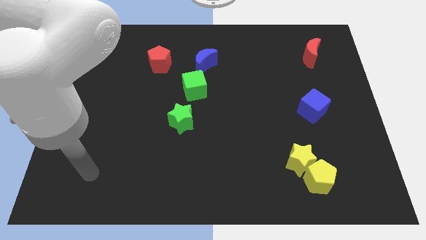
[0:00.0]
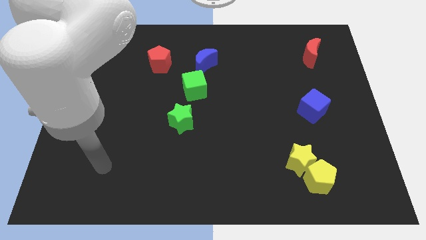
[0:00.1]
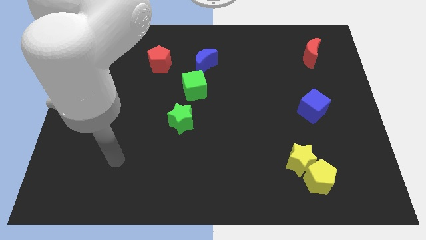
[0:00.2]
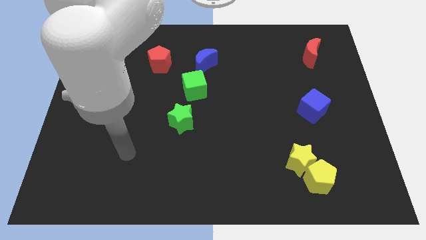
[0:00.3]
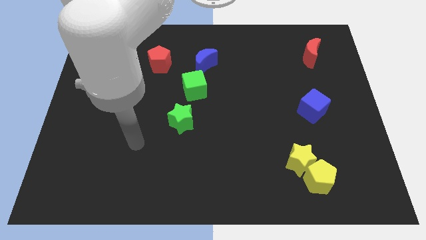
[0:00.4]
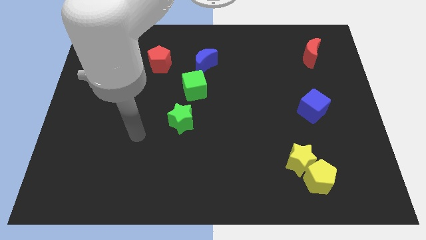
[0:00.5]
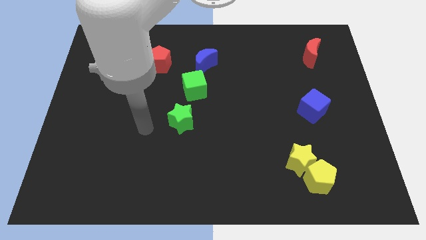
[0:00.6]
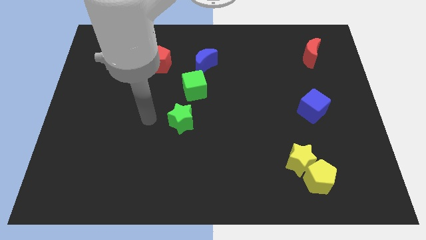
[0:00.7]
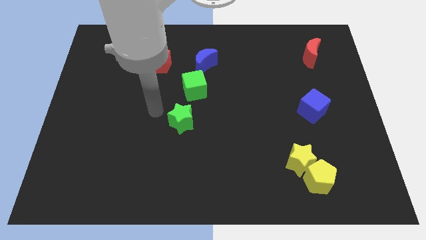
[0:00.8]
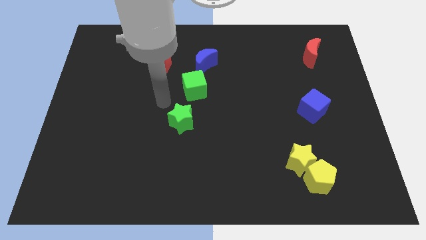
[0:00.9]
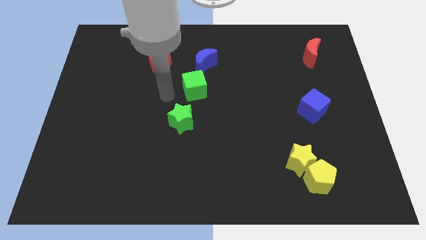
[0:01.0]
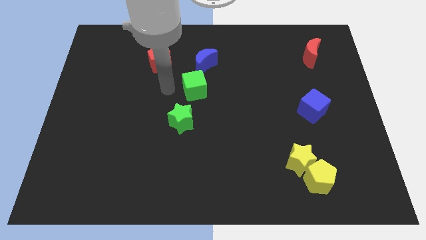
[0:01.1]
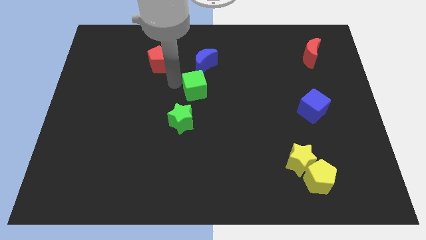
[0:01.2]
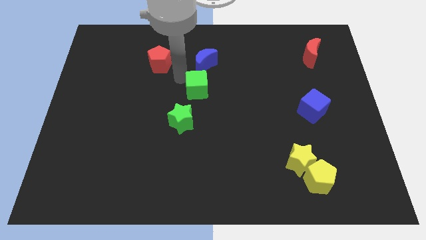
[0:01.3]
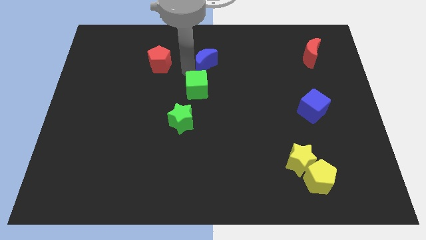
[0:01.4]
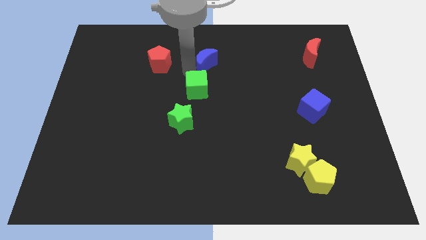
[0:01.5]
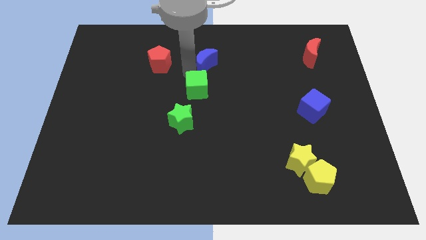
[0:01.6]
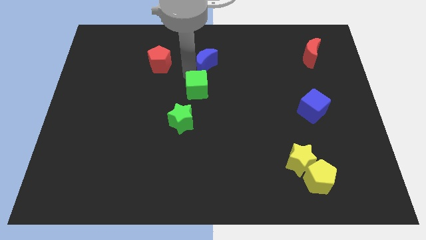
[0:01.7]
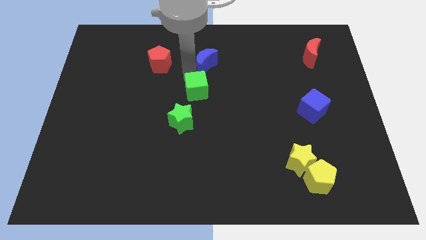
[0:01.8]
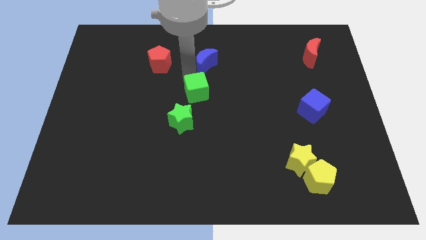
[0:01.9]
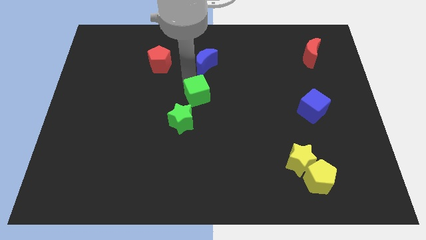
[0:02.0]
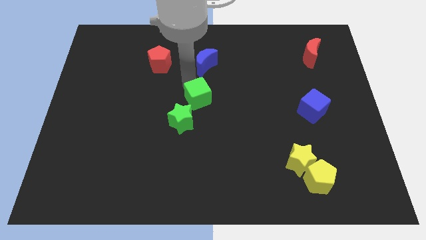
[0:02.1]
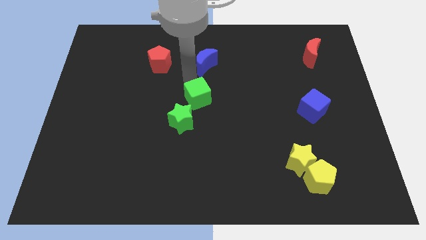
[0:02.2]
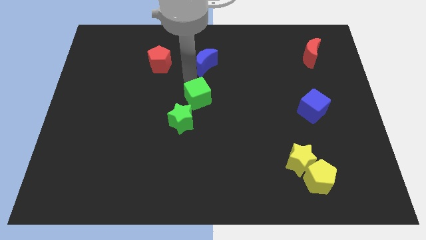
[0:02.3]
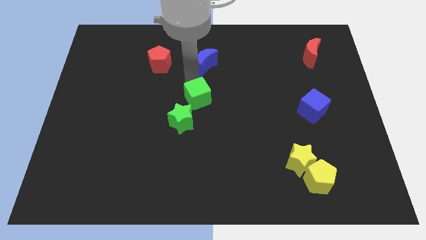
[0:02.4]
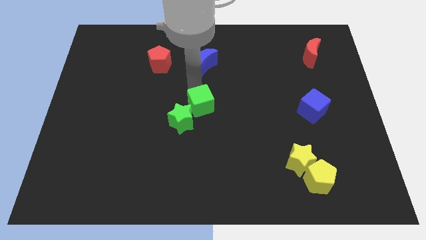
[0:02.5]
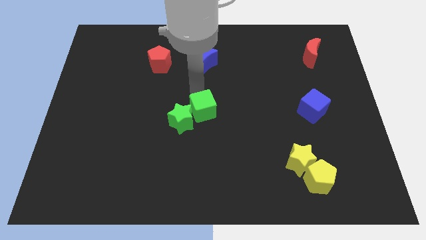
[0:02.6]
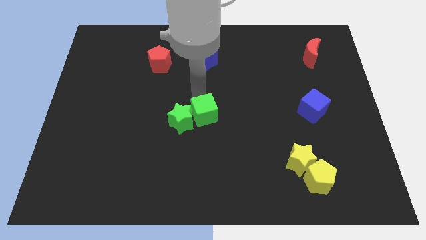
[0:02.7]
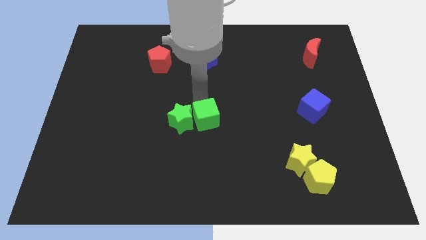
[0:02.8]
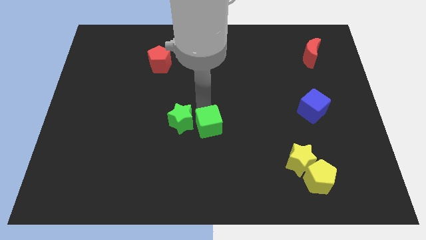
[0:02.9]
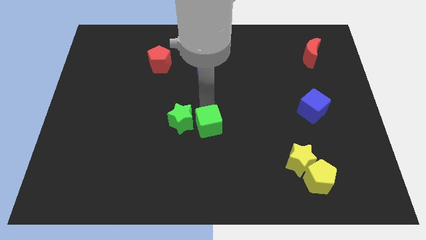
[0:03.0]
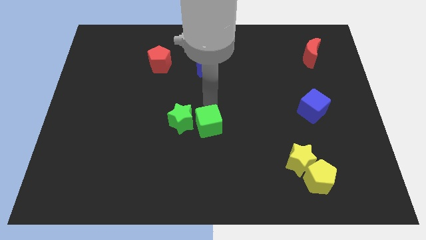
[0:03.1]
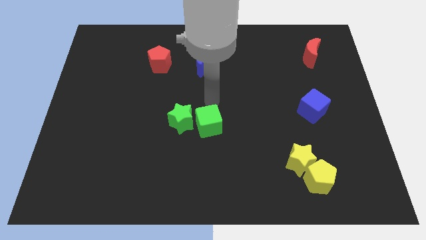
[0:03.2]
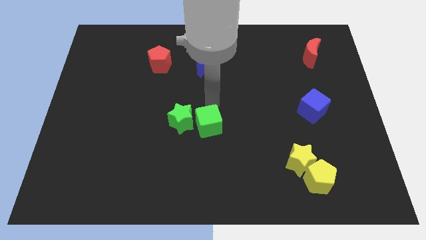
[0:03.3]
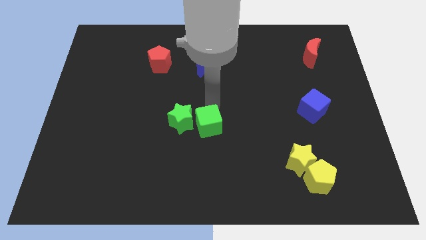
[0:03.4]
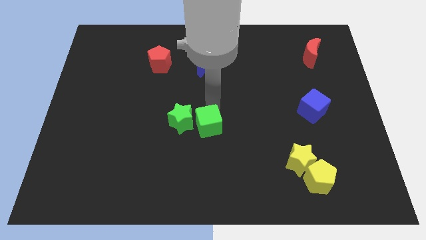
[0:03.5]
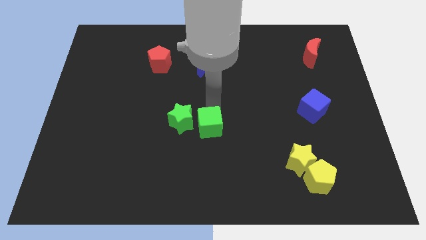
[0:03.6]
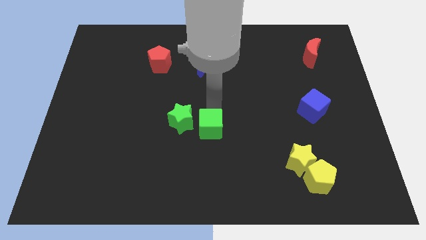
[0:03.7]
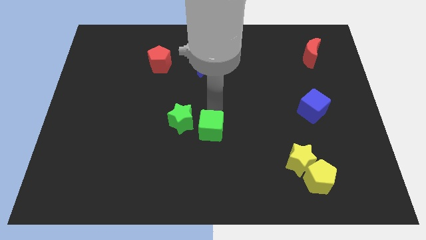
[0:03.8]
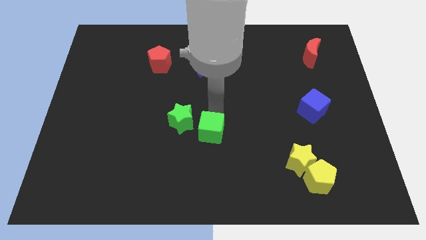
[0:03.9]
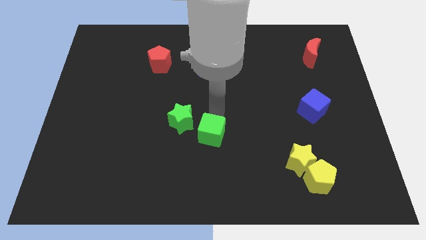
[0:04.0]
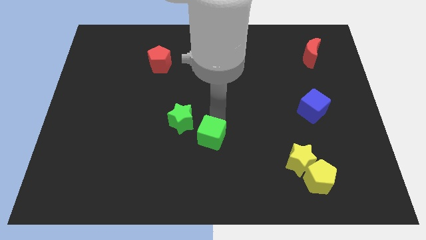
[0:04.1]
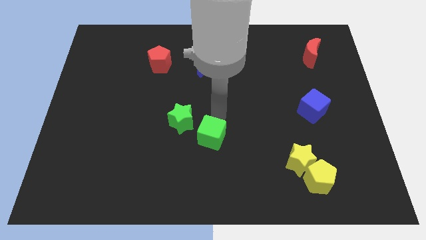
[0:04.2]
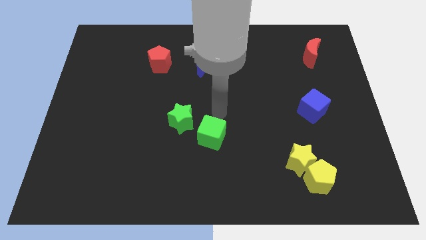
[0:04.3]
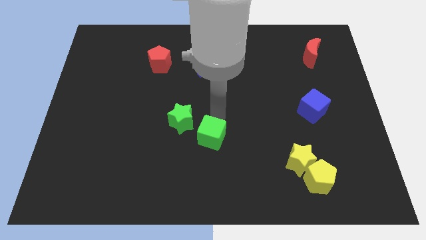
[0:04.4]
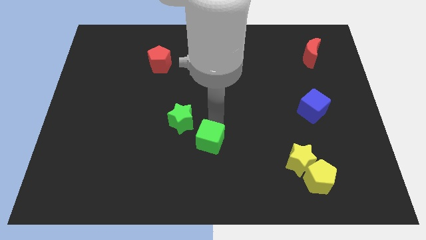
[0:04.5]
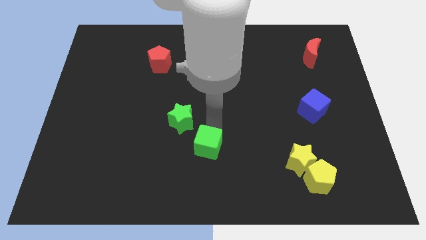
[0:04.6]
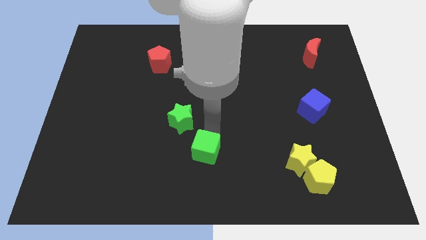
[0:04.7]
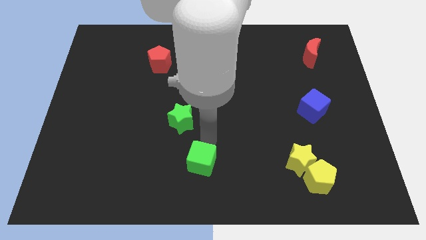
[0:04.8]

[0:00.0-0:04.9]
put the green cube to the bottom side

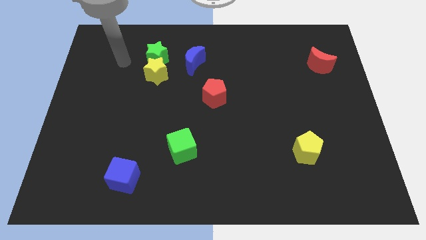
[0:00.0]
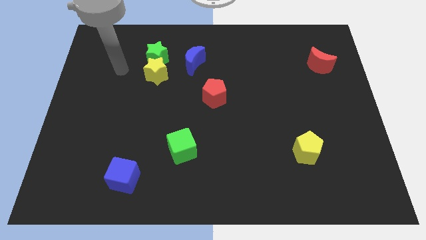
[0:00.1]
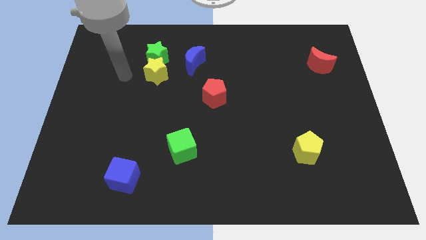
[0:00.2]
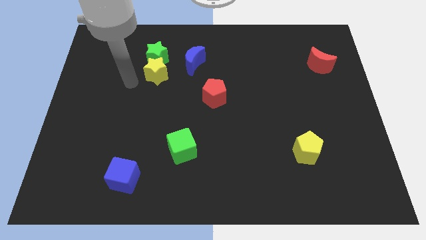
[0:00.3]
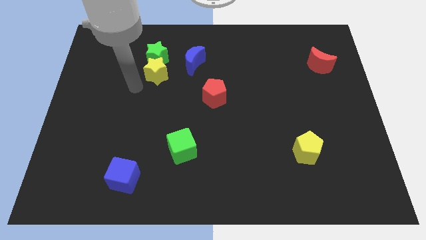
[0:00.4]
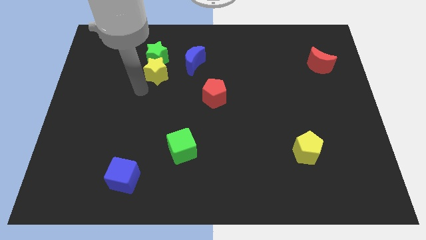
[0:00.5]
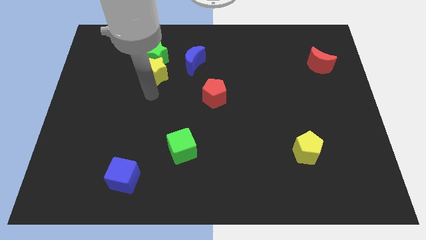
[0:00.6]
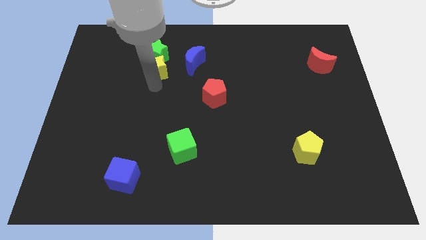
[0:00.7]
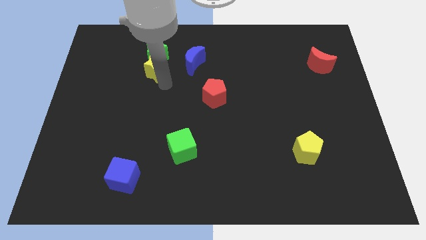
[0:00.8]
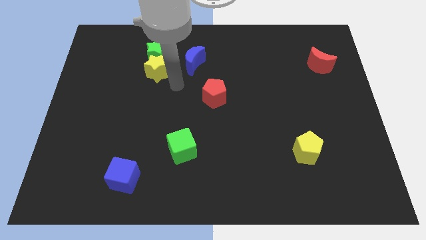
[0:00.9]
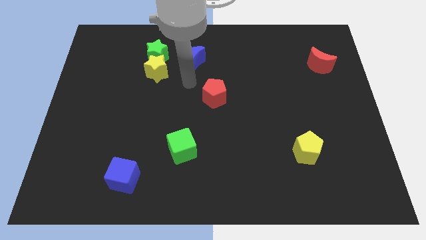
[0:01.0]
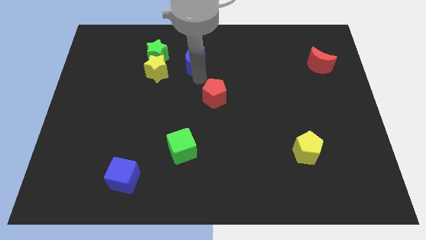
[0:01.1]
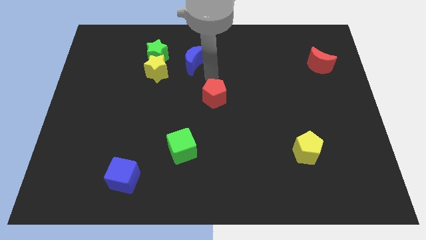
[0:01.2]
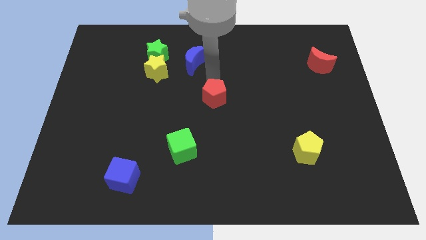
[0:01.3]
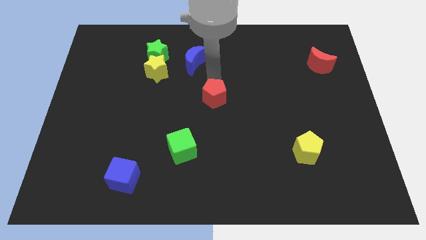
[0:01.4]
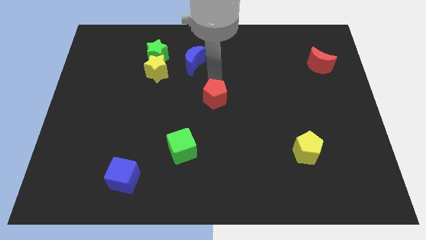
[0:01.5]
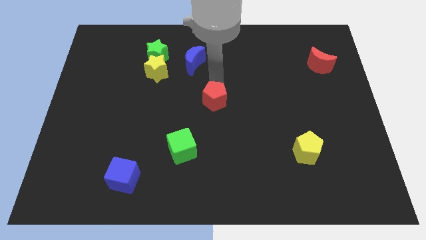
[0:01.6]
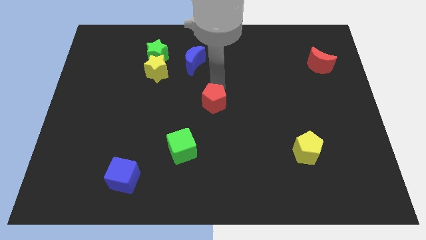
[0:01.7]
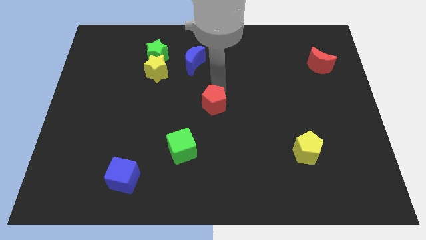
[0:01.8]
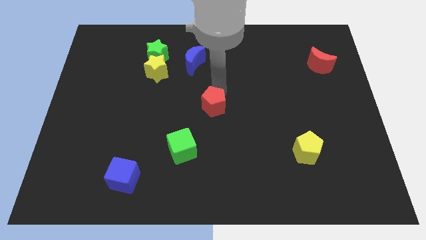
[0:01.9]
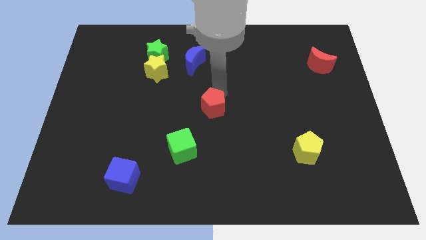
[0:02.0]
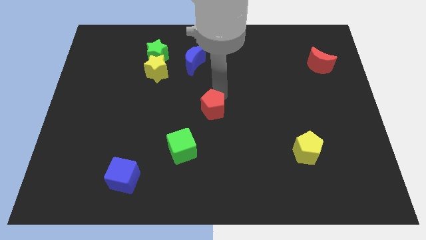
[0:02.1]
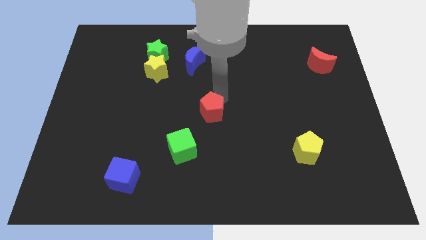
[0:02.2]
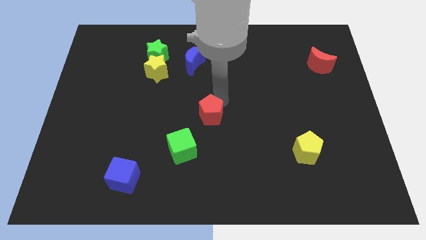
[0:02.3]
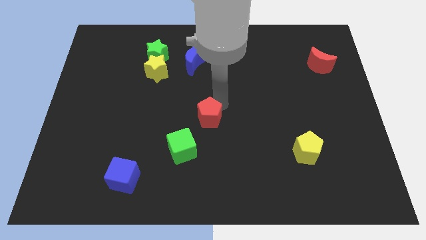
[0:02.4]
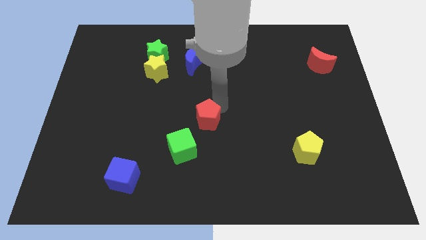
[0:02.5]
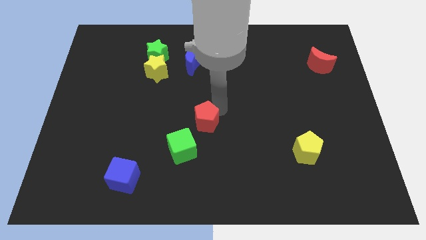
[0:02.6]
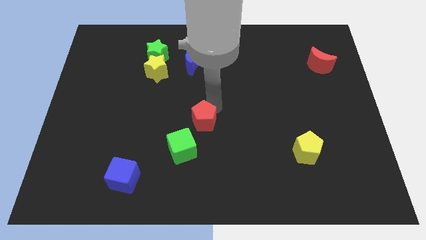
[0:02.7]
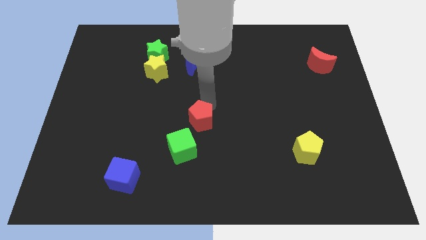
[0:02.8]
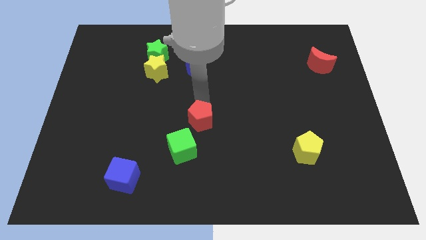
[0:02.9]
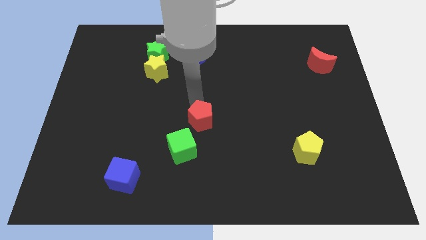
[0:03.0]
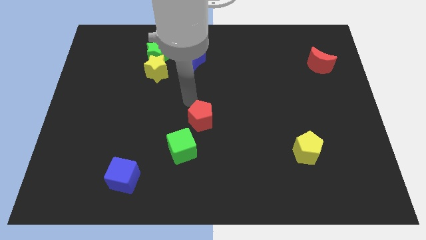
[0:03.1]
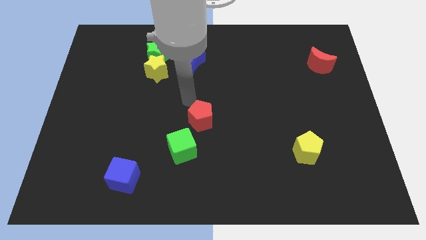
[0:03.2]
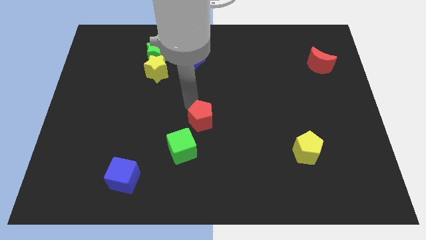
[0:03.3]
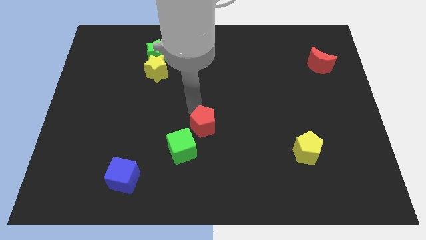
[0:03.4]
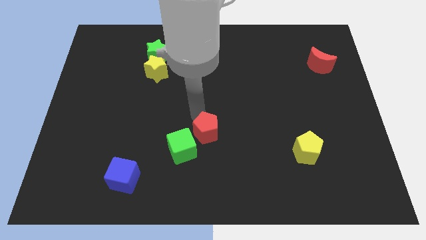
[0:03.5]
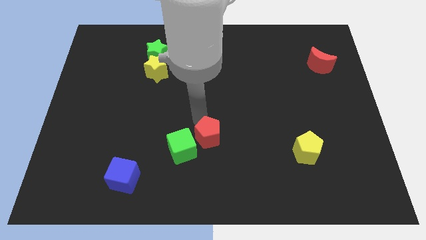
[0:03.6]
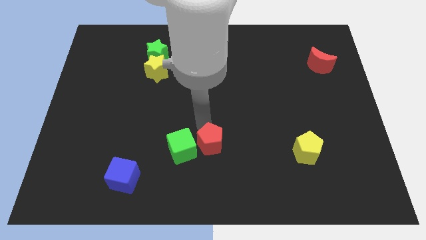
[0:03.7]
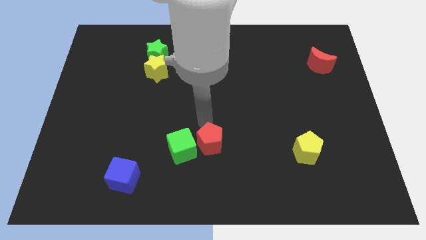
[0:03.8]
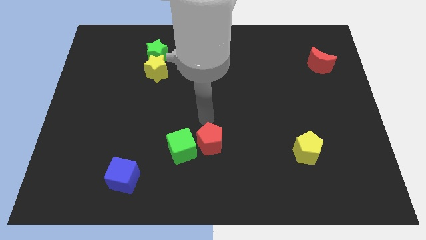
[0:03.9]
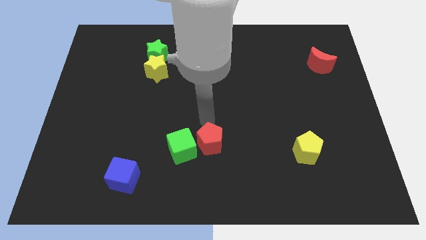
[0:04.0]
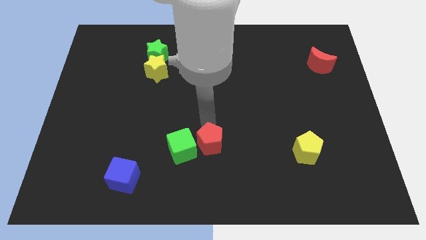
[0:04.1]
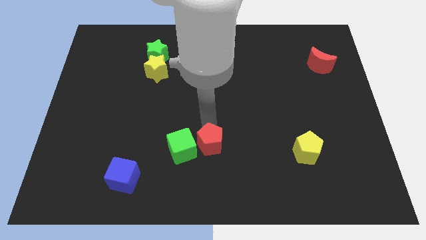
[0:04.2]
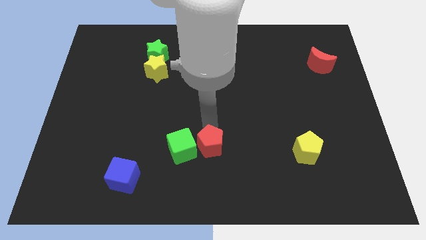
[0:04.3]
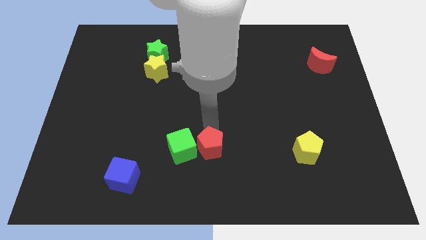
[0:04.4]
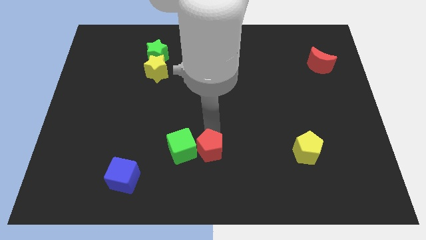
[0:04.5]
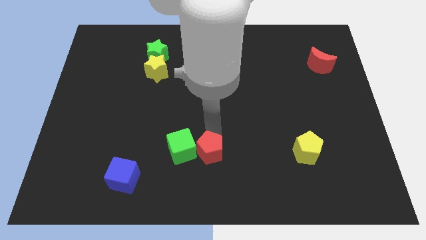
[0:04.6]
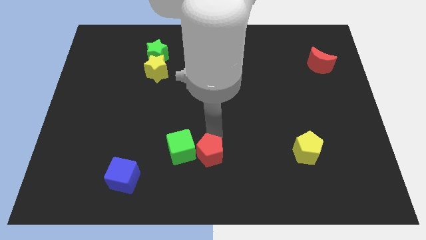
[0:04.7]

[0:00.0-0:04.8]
slide the red pentagon to the bottom
